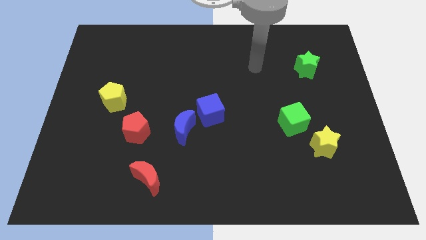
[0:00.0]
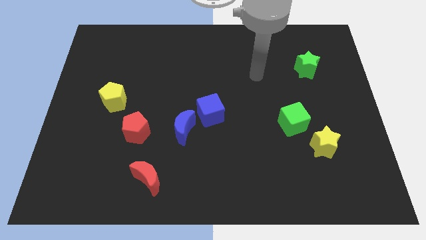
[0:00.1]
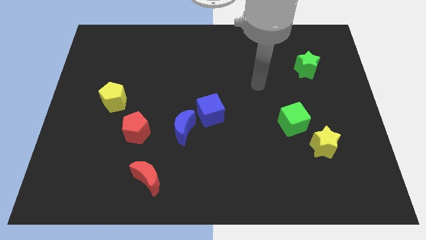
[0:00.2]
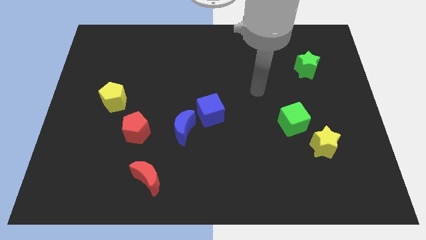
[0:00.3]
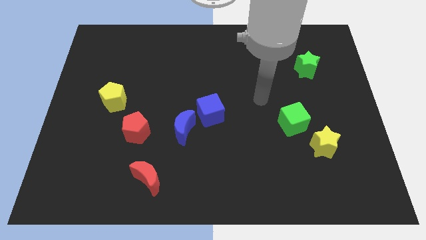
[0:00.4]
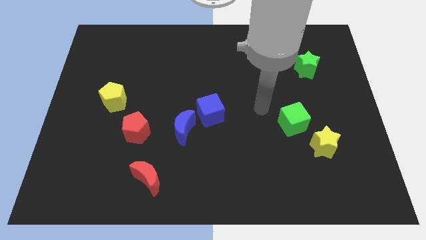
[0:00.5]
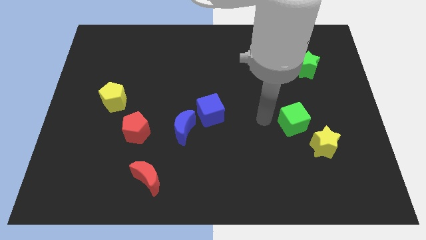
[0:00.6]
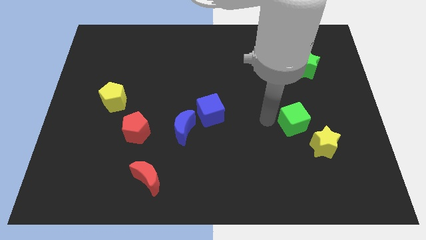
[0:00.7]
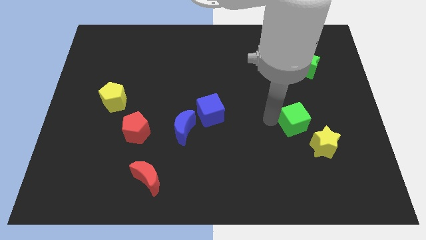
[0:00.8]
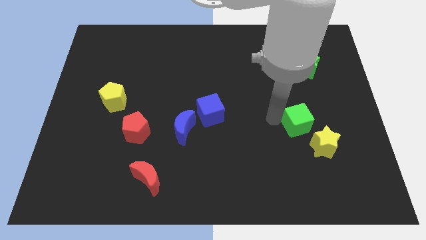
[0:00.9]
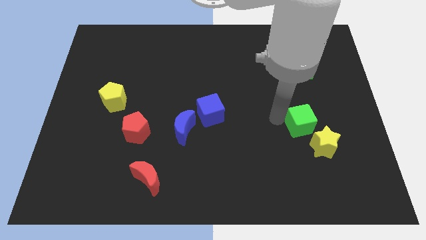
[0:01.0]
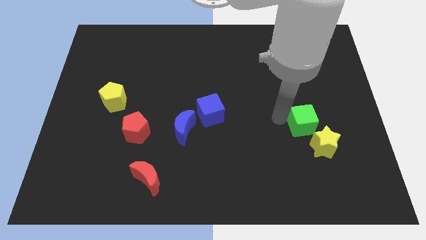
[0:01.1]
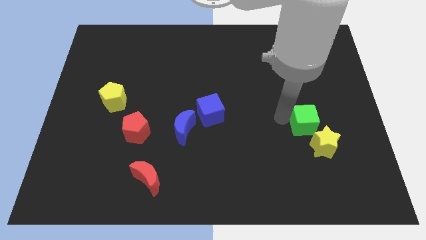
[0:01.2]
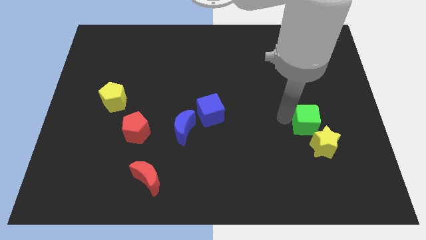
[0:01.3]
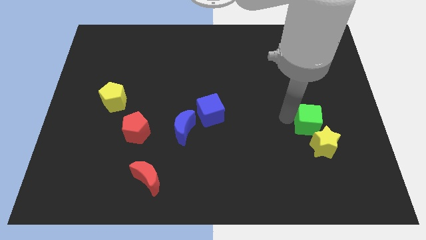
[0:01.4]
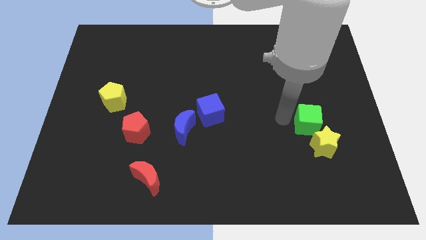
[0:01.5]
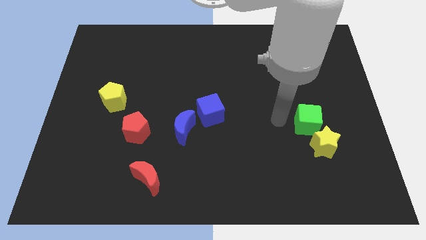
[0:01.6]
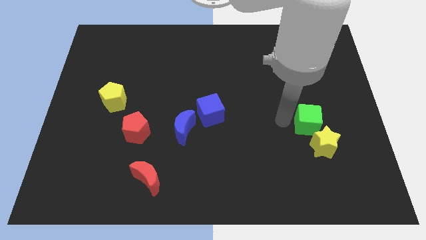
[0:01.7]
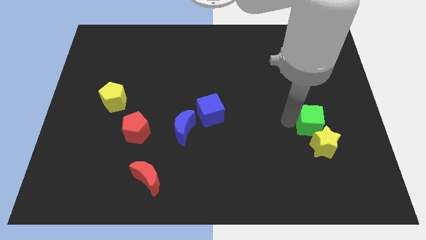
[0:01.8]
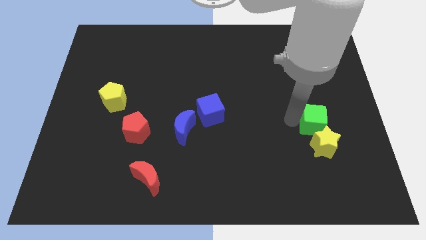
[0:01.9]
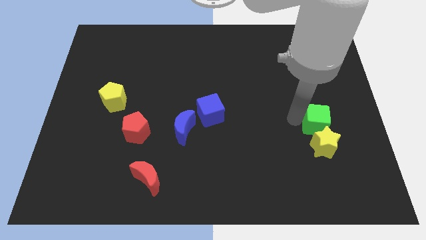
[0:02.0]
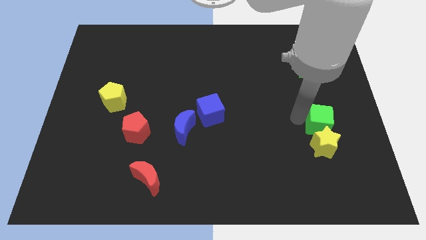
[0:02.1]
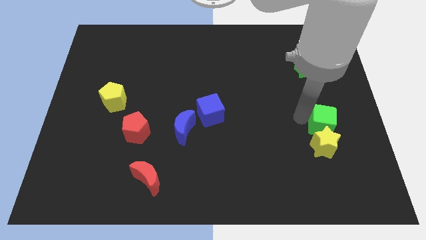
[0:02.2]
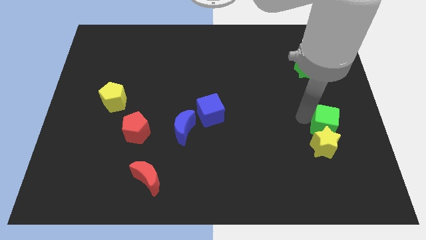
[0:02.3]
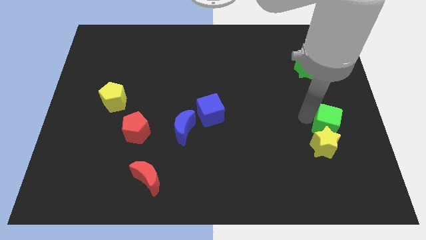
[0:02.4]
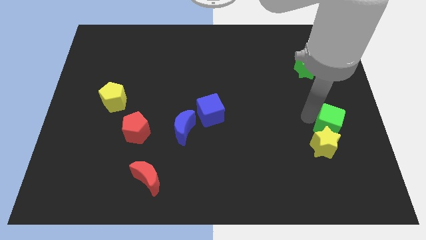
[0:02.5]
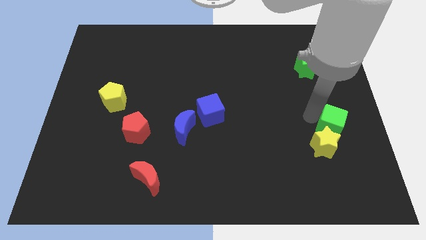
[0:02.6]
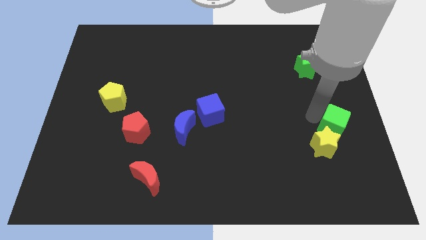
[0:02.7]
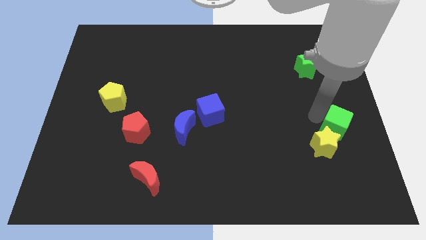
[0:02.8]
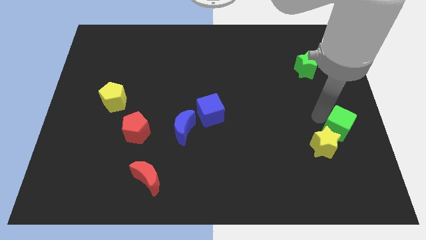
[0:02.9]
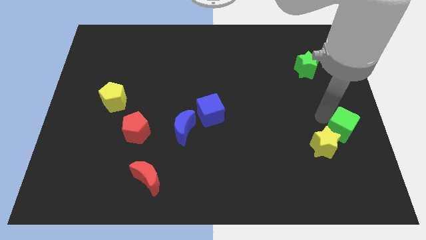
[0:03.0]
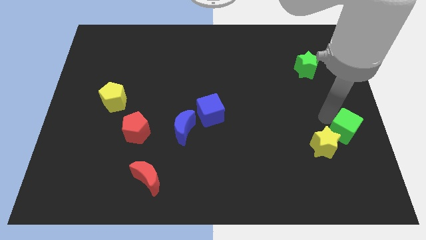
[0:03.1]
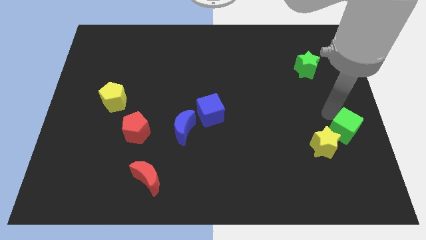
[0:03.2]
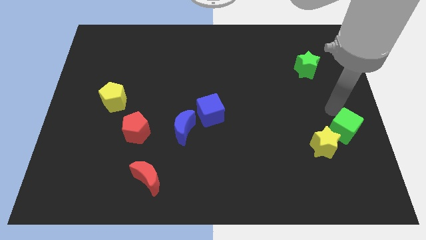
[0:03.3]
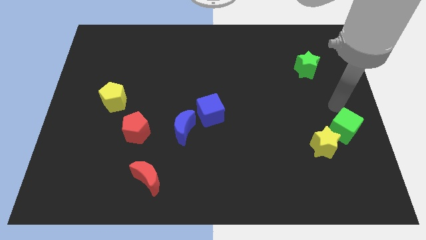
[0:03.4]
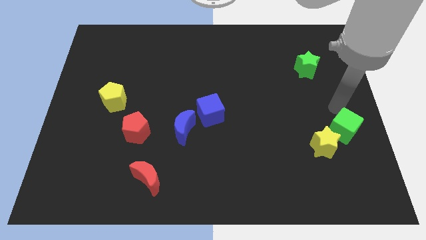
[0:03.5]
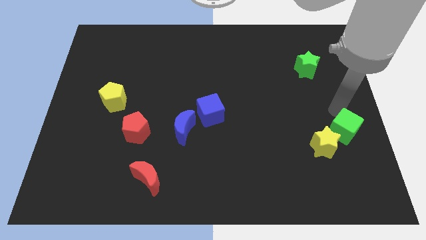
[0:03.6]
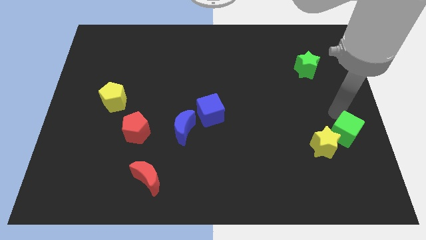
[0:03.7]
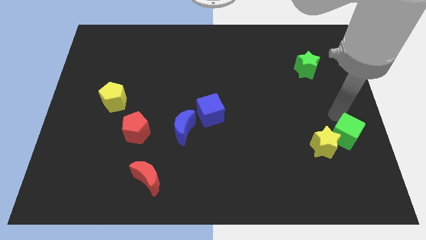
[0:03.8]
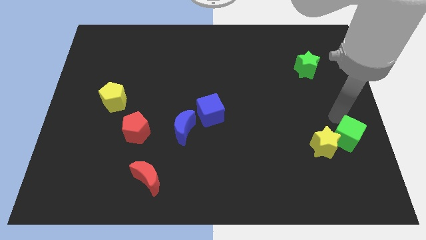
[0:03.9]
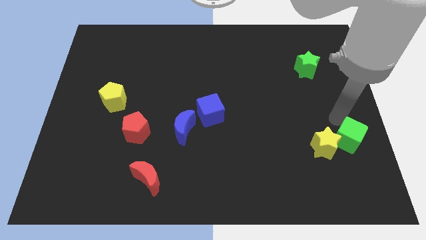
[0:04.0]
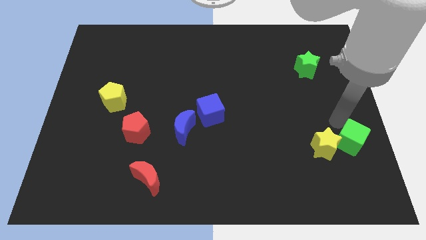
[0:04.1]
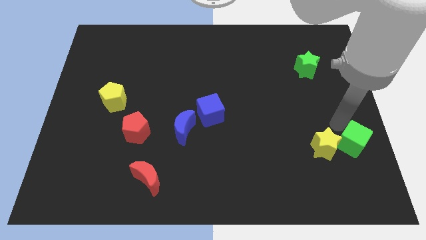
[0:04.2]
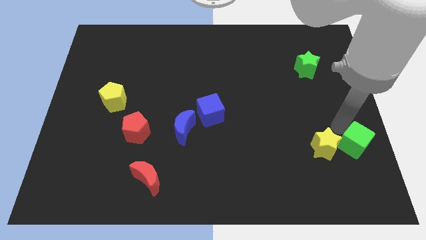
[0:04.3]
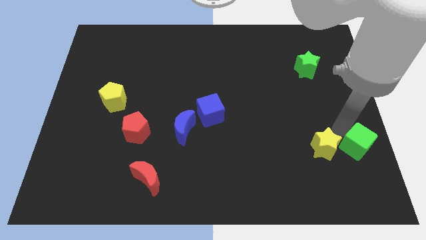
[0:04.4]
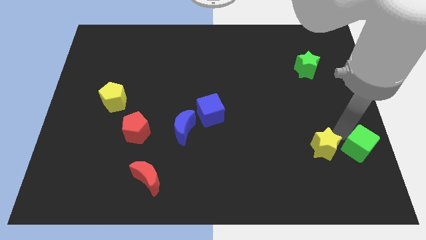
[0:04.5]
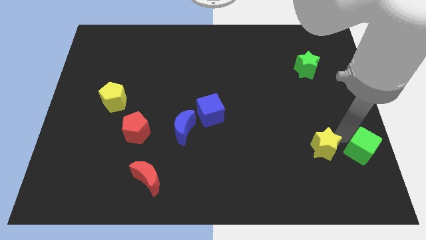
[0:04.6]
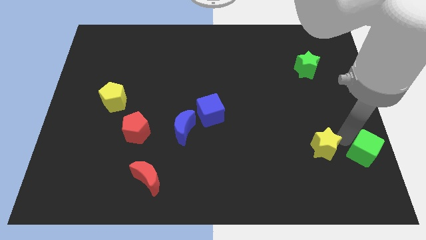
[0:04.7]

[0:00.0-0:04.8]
move the green cube to the bottom right side of the yellow star

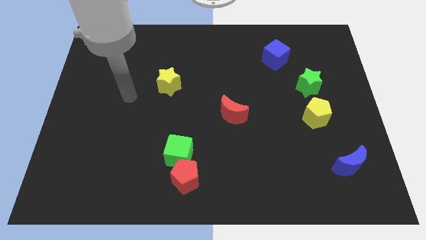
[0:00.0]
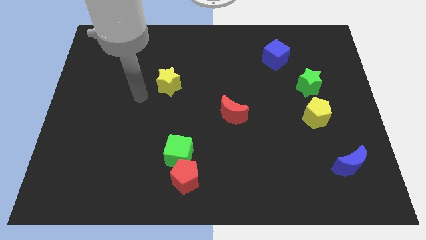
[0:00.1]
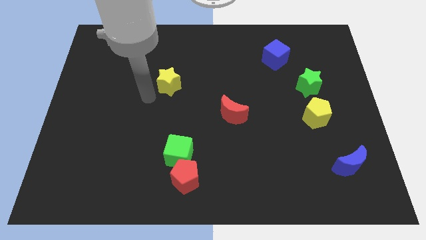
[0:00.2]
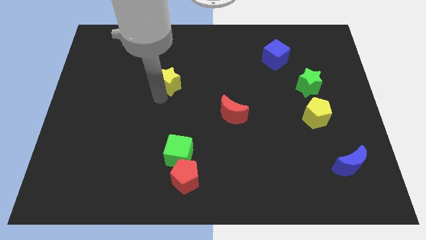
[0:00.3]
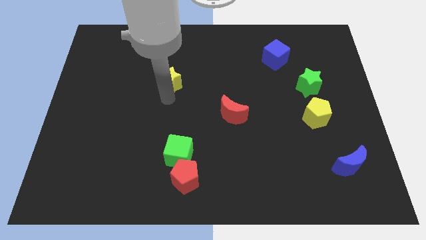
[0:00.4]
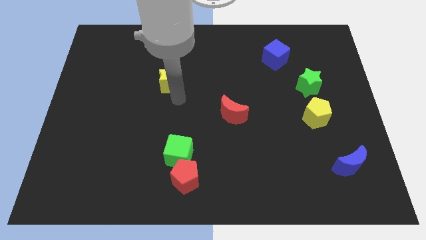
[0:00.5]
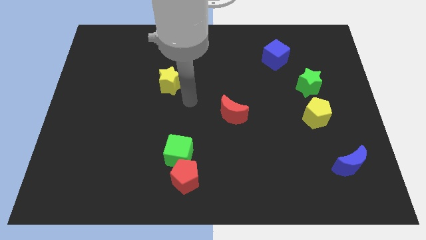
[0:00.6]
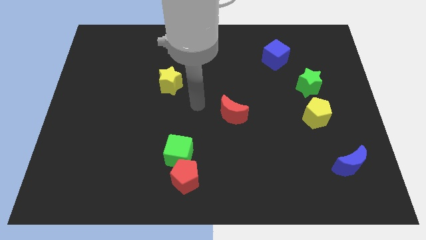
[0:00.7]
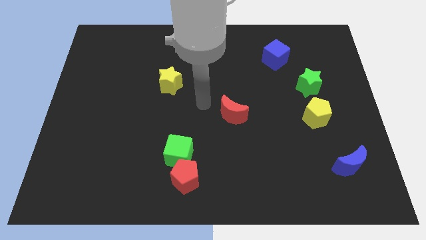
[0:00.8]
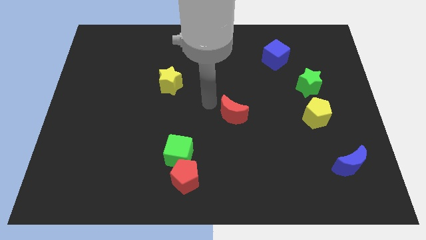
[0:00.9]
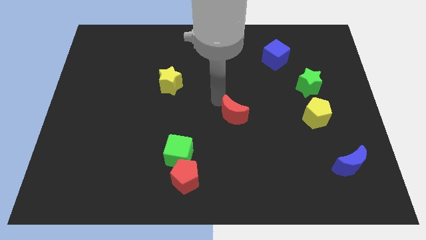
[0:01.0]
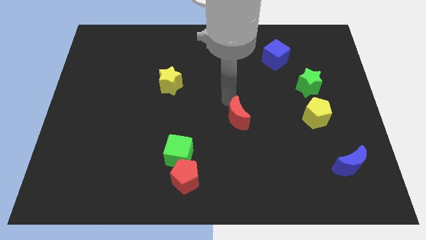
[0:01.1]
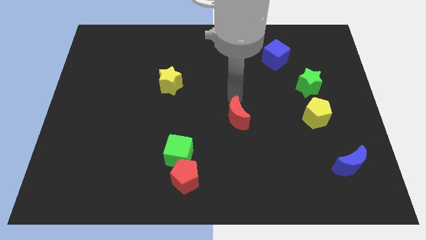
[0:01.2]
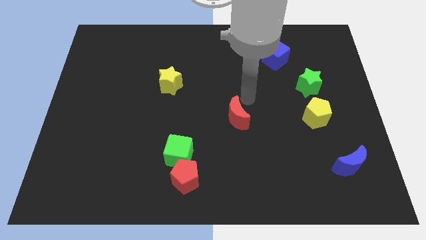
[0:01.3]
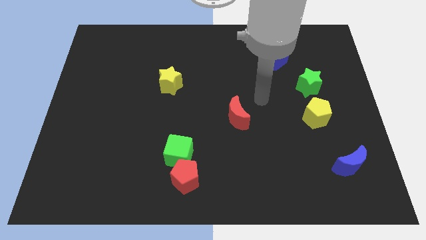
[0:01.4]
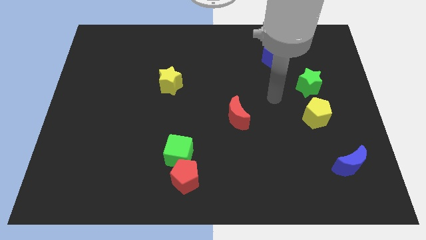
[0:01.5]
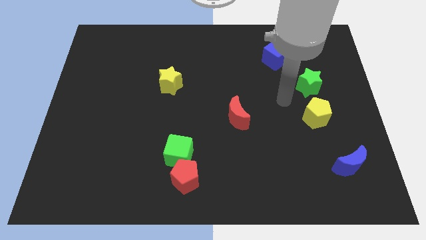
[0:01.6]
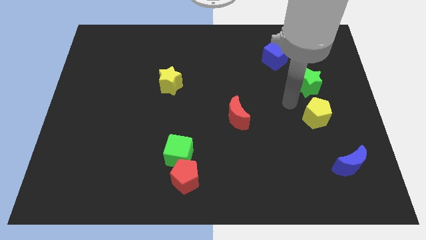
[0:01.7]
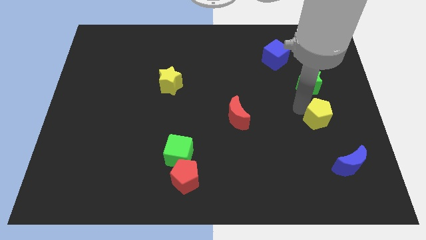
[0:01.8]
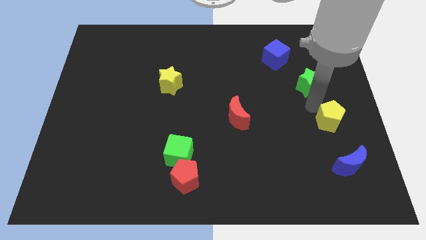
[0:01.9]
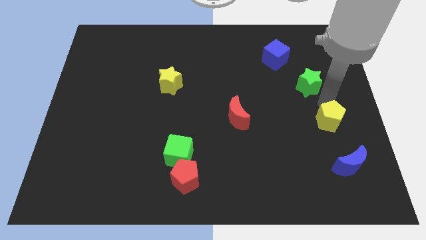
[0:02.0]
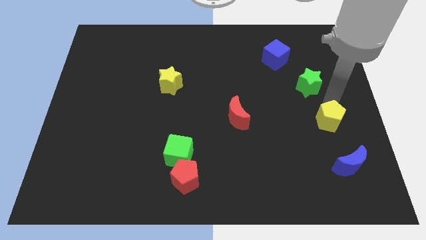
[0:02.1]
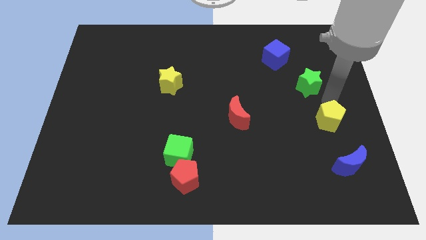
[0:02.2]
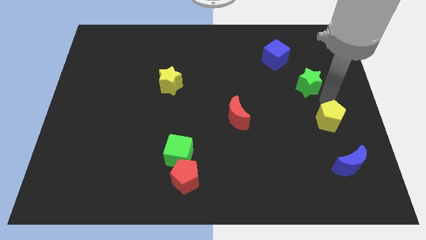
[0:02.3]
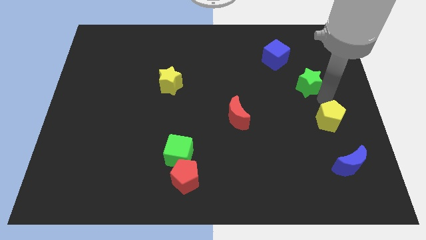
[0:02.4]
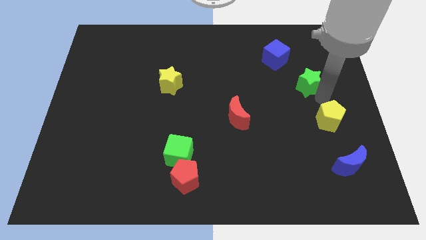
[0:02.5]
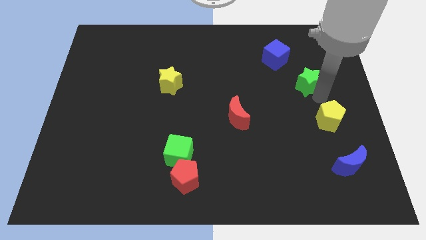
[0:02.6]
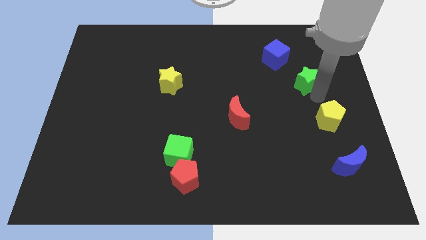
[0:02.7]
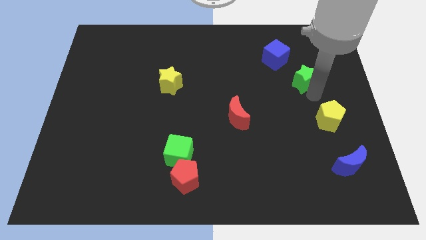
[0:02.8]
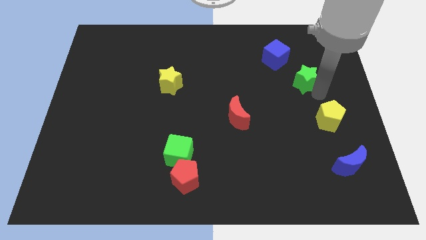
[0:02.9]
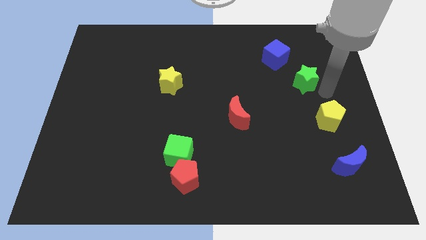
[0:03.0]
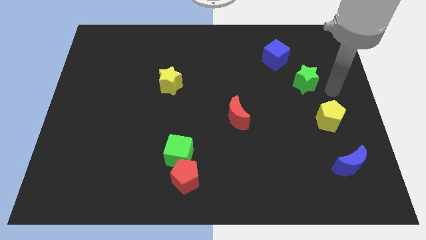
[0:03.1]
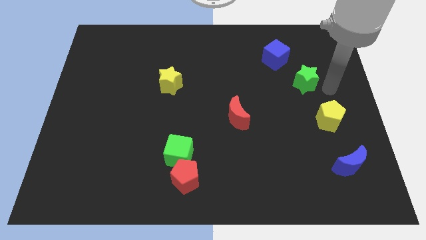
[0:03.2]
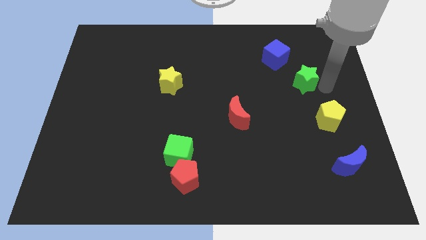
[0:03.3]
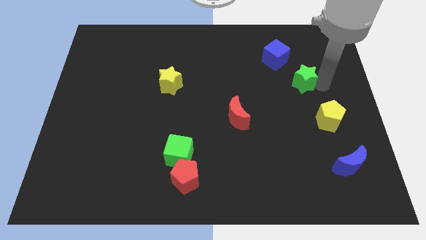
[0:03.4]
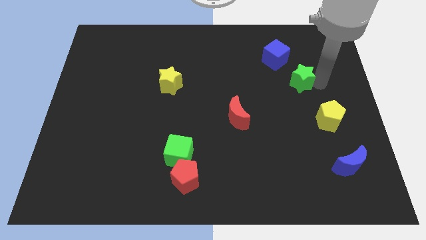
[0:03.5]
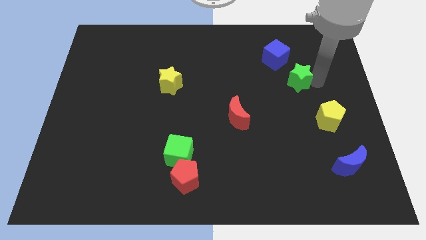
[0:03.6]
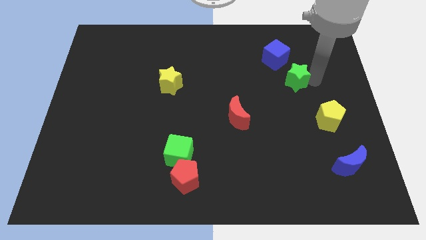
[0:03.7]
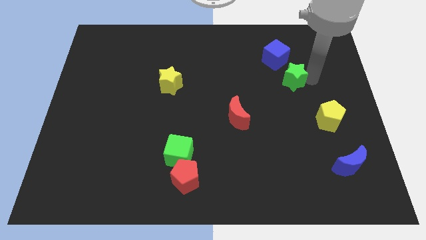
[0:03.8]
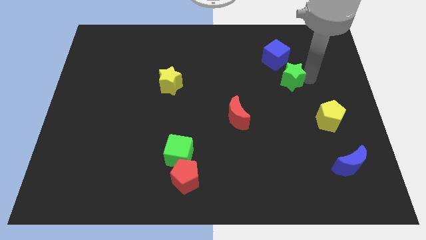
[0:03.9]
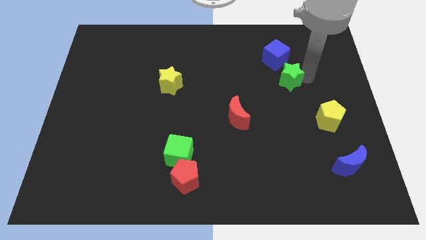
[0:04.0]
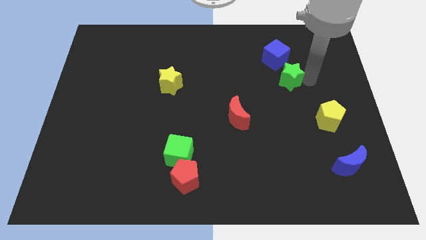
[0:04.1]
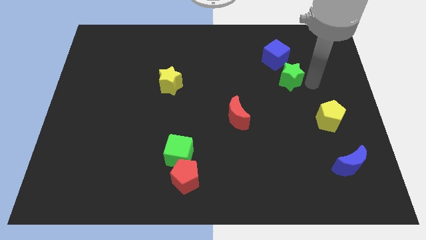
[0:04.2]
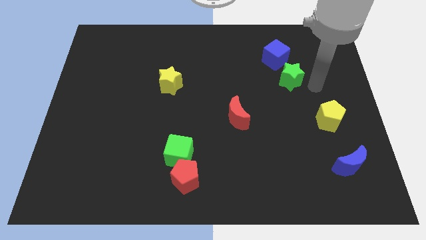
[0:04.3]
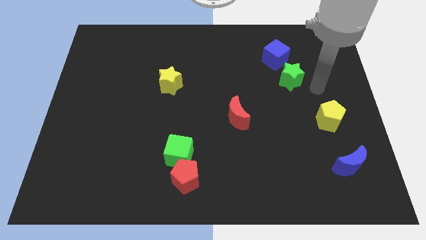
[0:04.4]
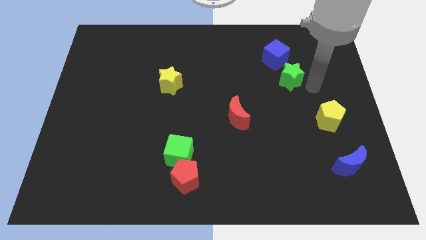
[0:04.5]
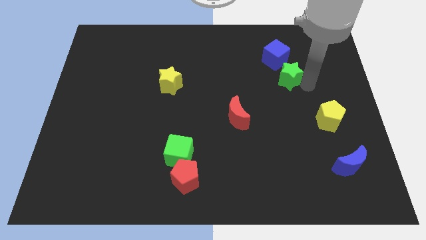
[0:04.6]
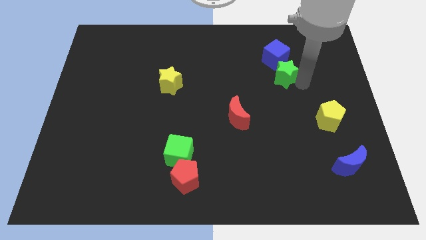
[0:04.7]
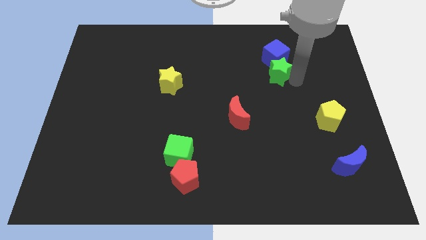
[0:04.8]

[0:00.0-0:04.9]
push the green star diagonally down and to the left of the blue cube
